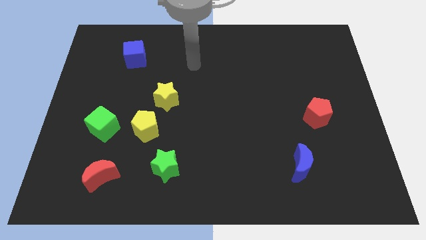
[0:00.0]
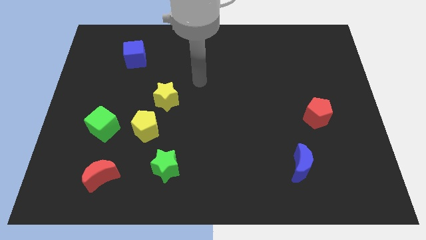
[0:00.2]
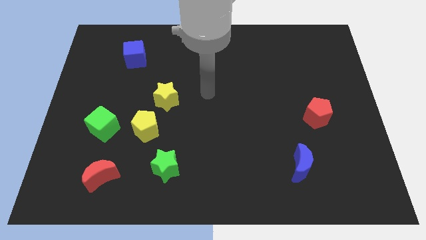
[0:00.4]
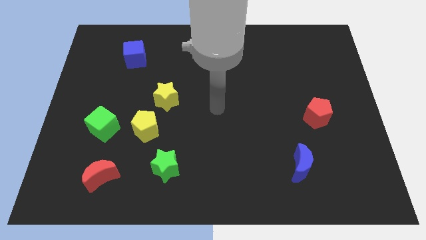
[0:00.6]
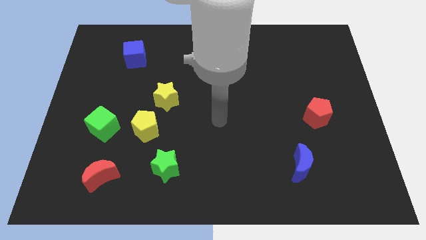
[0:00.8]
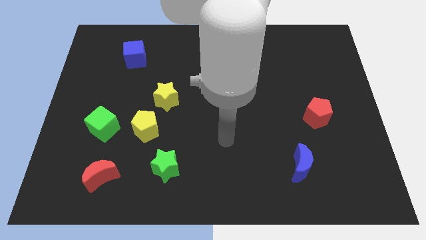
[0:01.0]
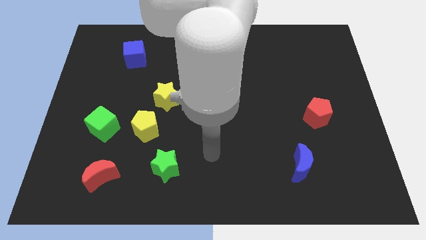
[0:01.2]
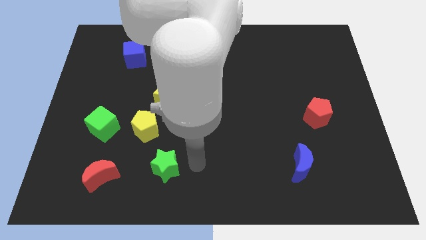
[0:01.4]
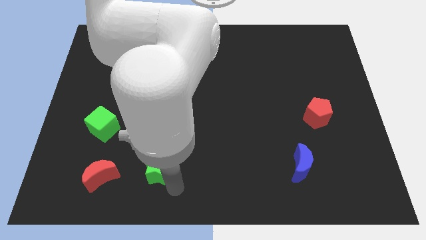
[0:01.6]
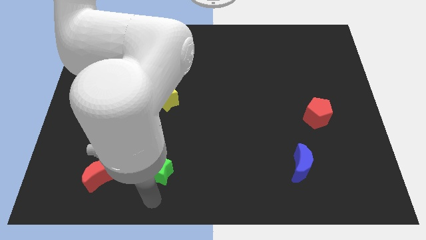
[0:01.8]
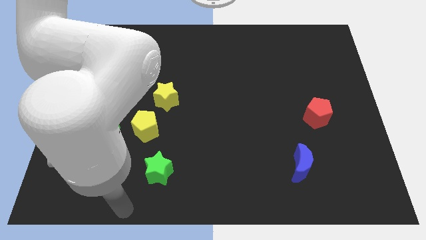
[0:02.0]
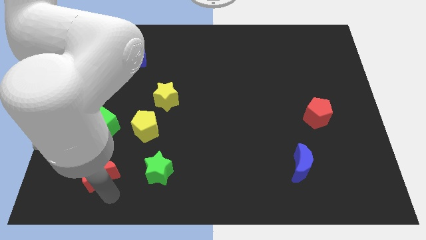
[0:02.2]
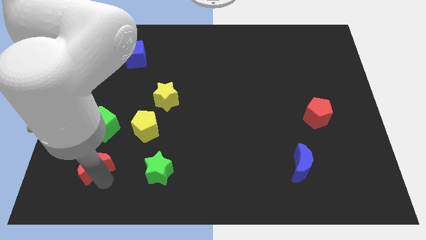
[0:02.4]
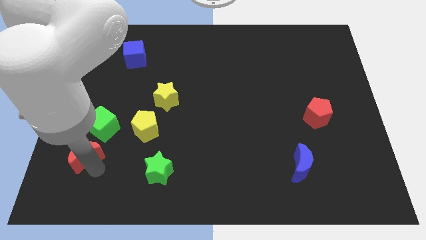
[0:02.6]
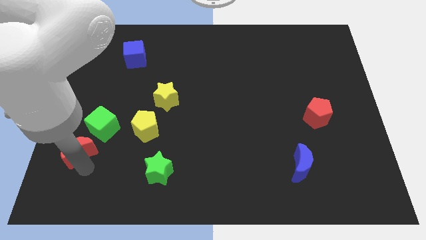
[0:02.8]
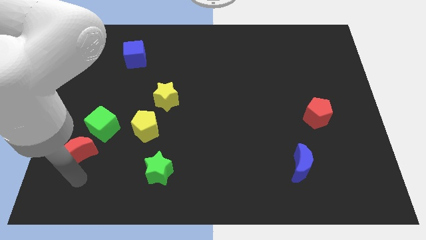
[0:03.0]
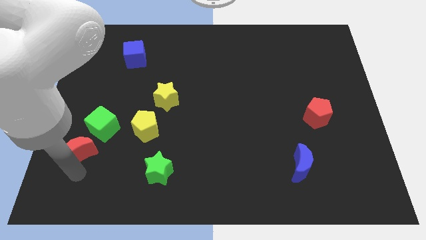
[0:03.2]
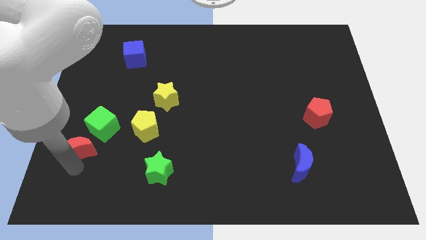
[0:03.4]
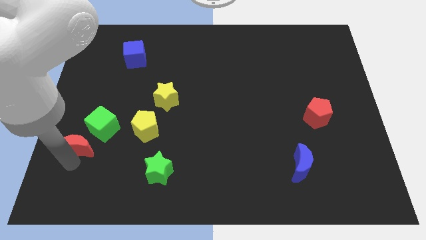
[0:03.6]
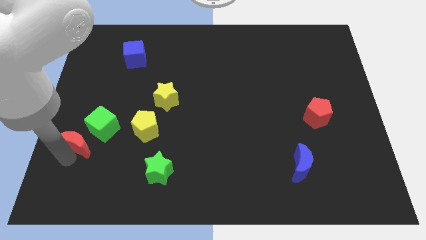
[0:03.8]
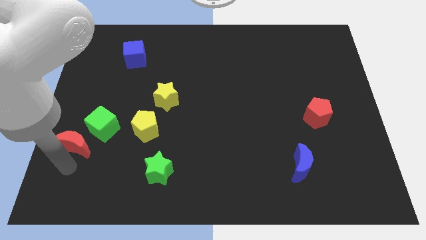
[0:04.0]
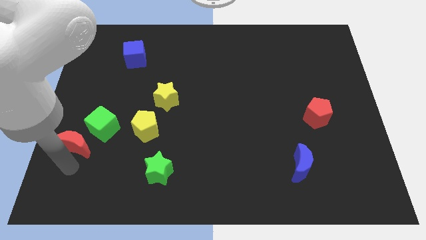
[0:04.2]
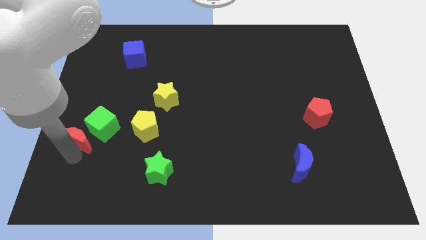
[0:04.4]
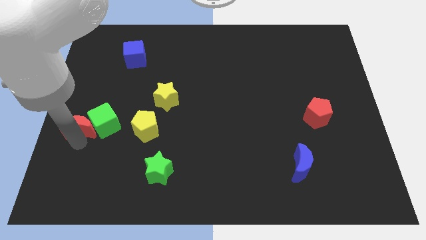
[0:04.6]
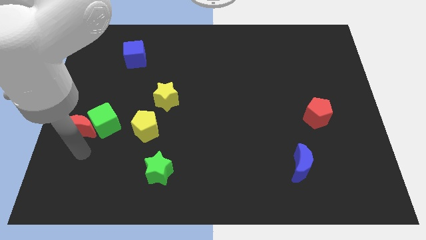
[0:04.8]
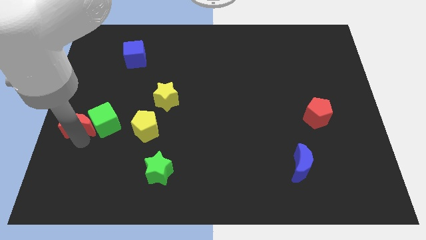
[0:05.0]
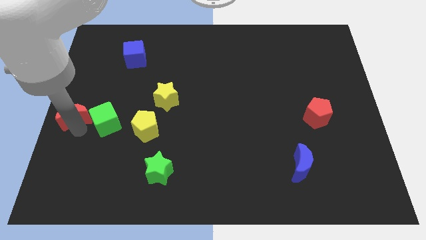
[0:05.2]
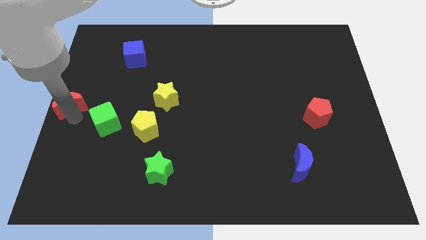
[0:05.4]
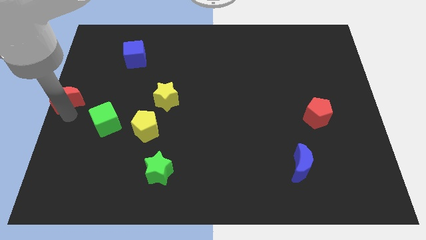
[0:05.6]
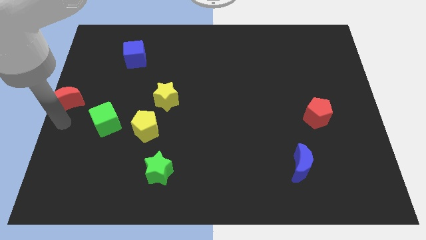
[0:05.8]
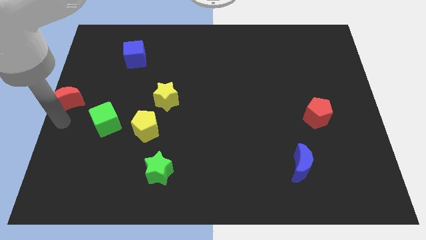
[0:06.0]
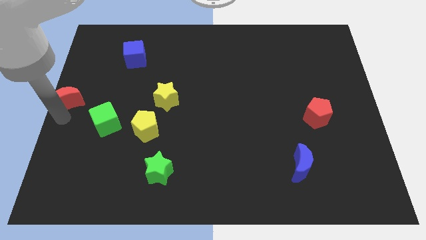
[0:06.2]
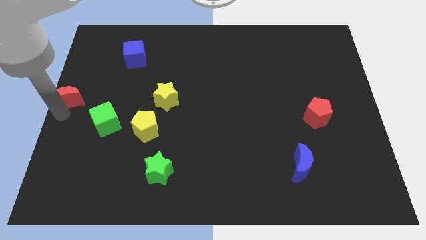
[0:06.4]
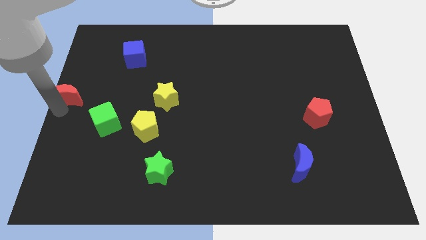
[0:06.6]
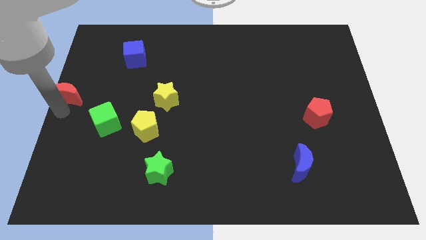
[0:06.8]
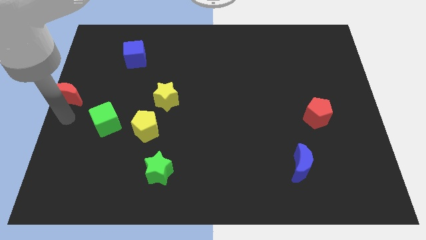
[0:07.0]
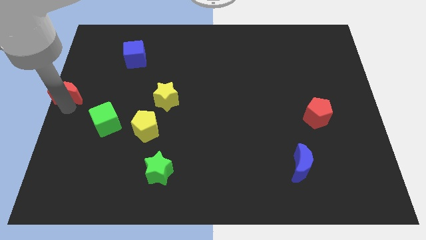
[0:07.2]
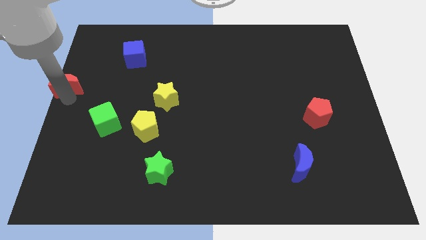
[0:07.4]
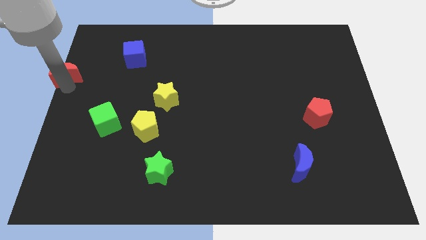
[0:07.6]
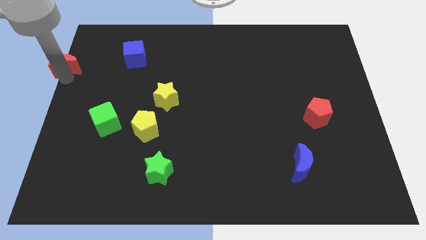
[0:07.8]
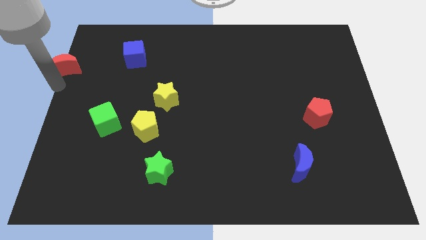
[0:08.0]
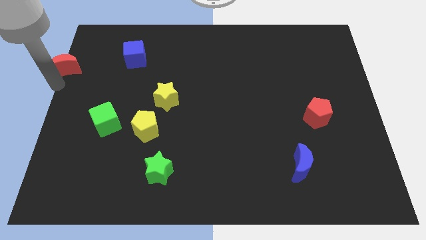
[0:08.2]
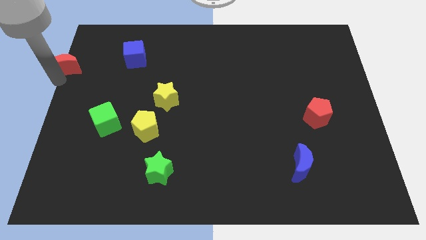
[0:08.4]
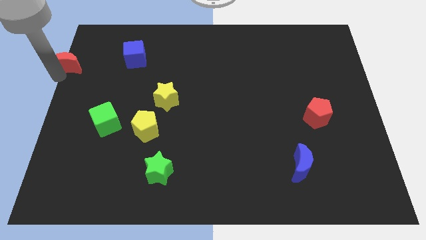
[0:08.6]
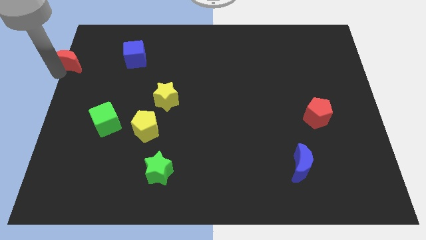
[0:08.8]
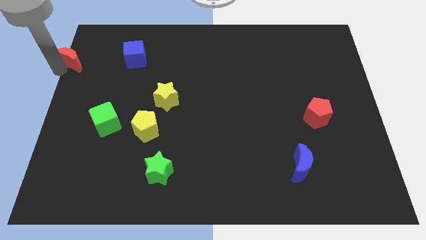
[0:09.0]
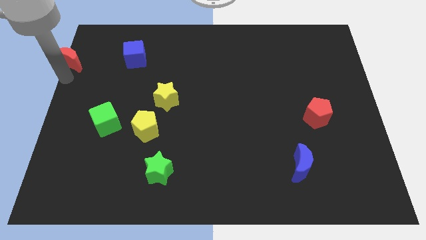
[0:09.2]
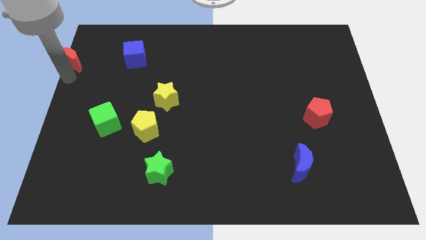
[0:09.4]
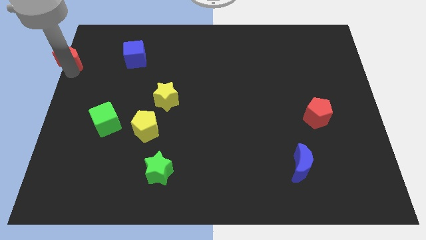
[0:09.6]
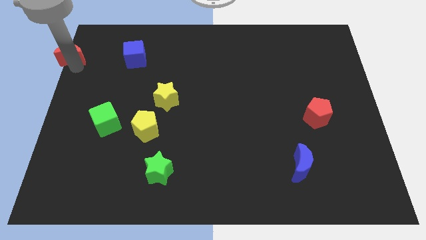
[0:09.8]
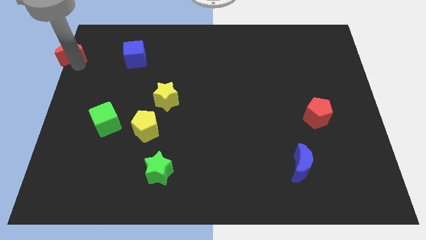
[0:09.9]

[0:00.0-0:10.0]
slide the red moon to the top left

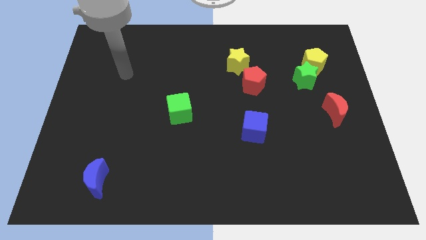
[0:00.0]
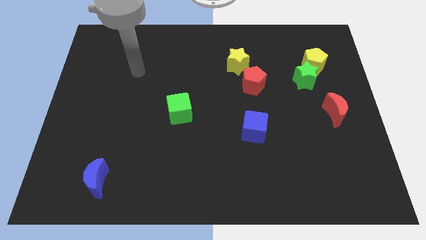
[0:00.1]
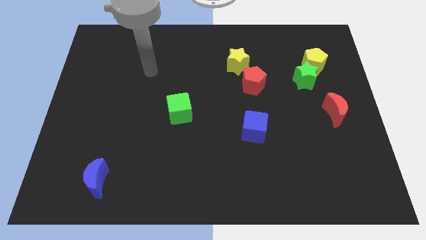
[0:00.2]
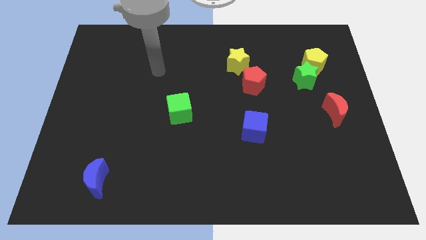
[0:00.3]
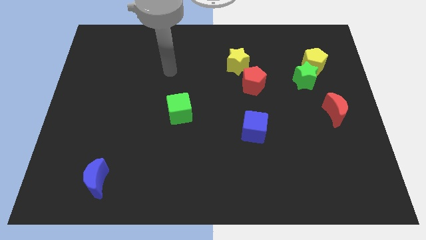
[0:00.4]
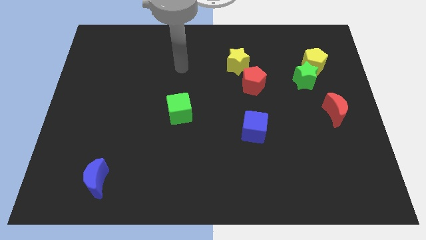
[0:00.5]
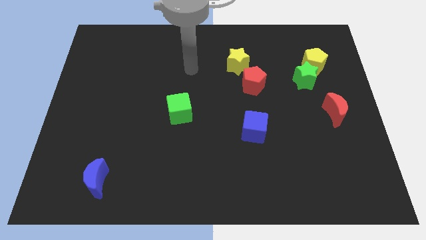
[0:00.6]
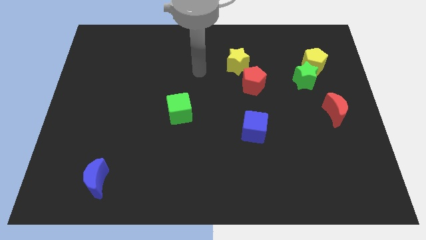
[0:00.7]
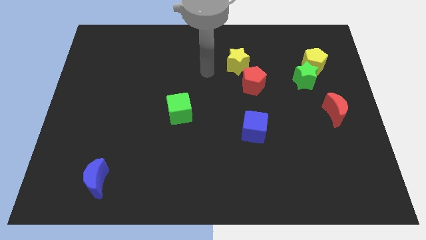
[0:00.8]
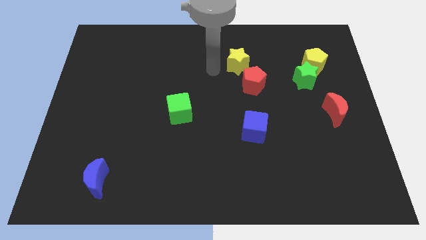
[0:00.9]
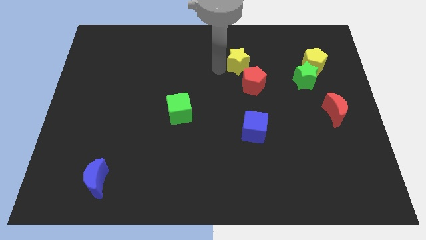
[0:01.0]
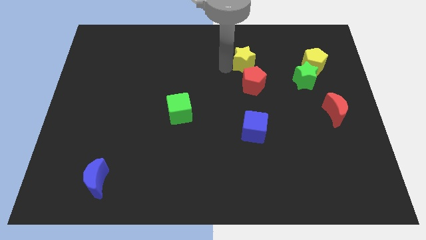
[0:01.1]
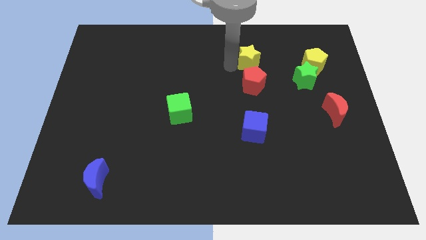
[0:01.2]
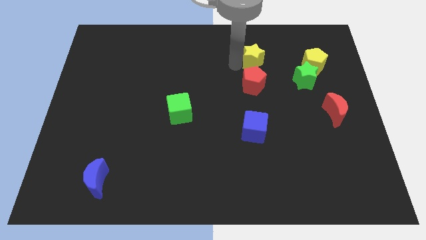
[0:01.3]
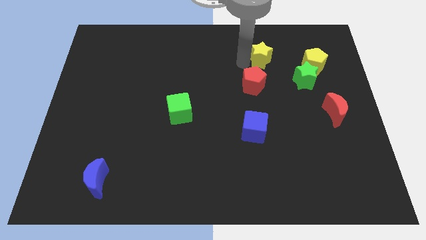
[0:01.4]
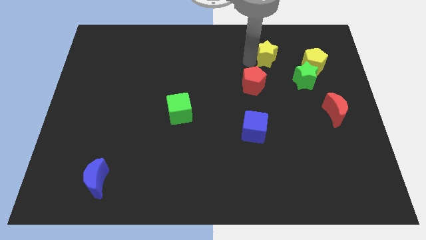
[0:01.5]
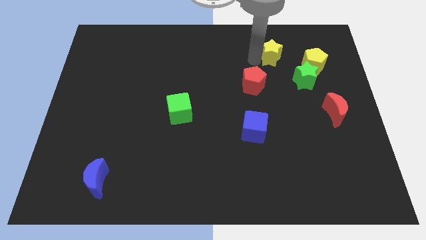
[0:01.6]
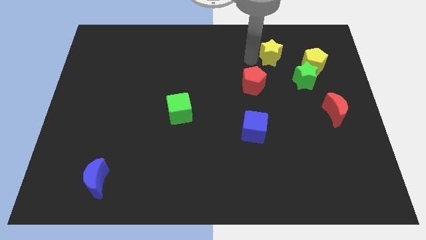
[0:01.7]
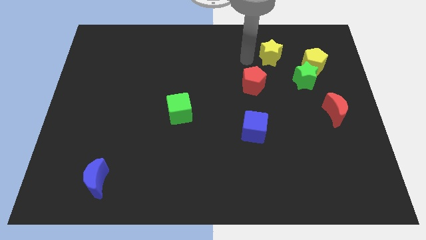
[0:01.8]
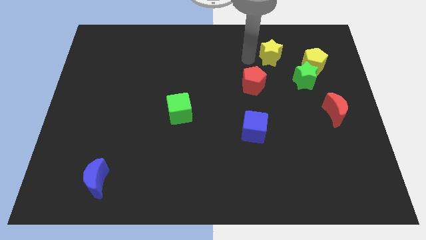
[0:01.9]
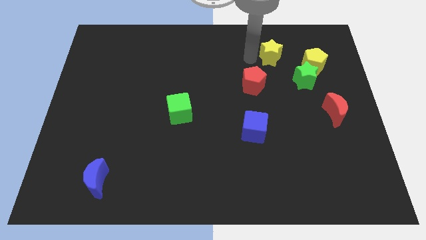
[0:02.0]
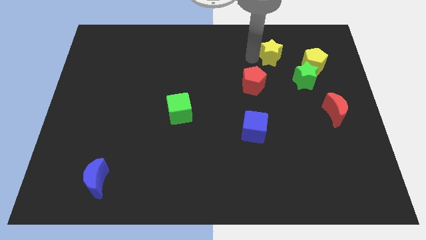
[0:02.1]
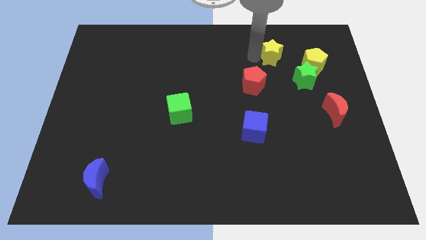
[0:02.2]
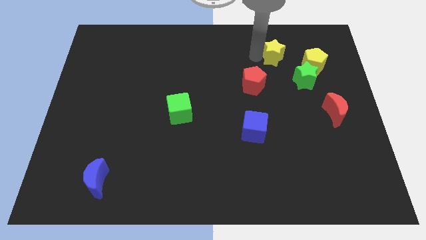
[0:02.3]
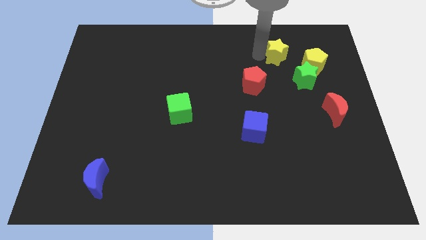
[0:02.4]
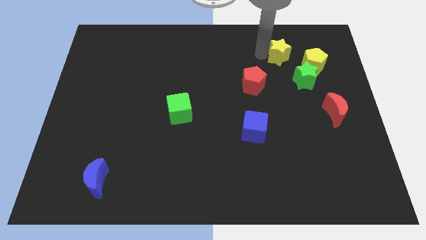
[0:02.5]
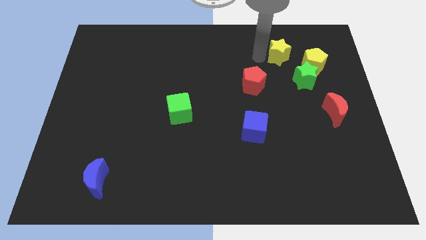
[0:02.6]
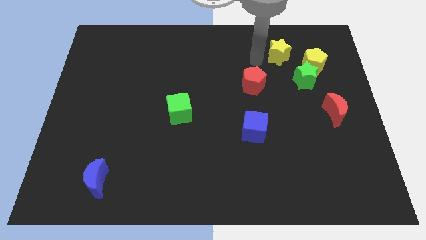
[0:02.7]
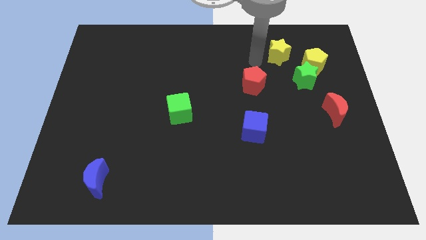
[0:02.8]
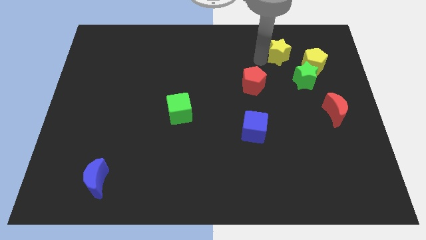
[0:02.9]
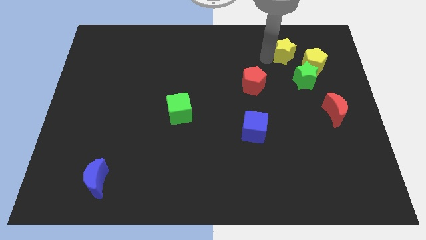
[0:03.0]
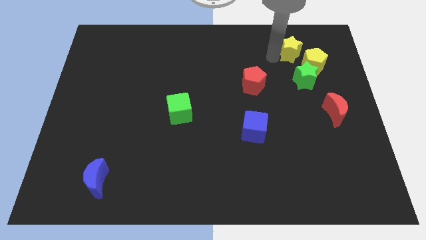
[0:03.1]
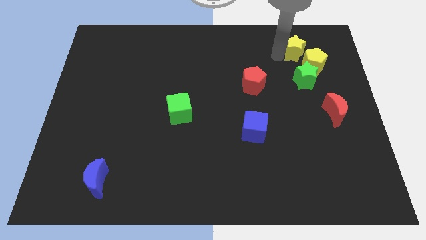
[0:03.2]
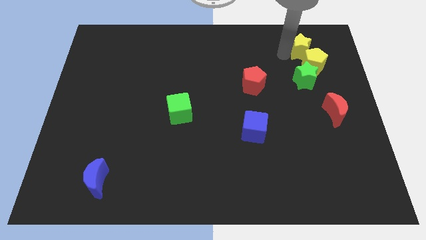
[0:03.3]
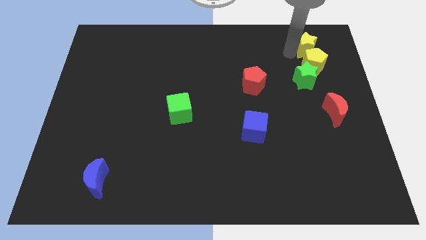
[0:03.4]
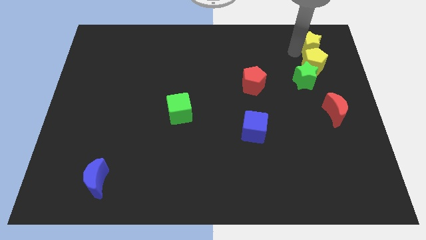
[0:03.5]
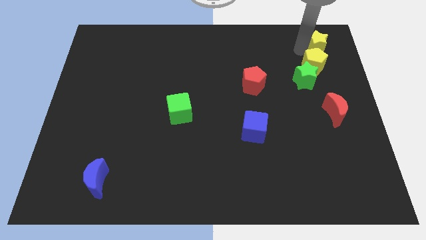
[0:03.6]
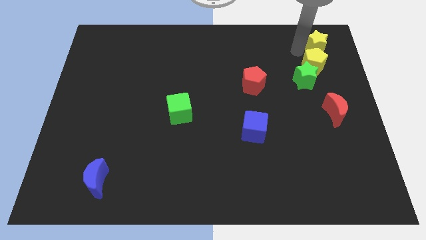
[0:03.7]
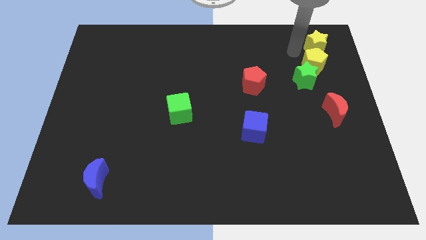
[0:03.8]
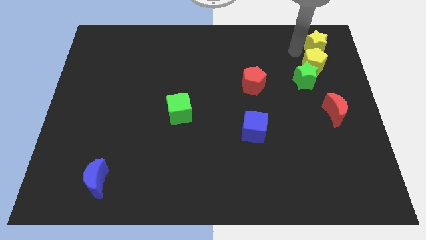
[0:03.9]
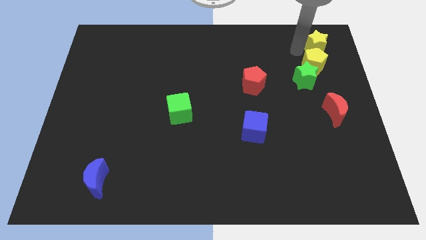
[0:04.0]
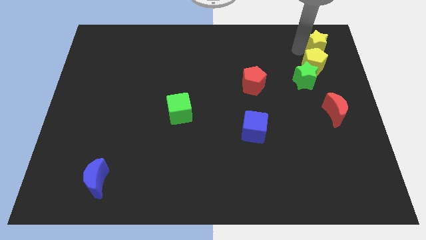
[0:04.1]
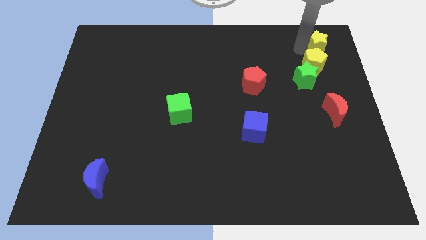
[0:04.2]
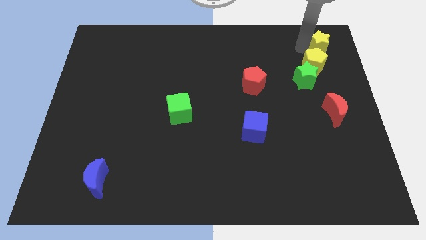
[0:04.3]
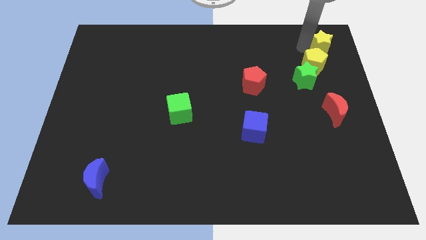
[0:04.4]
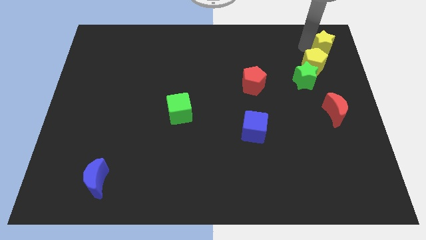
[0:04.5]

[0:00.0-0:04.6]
move the yellow star to the top right corner
